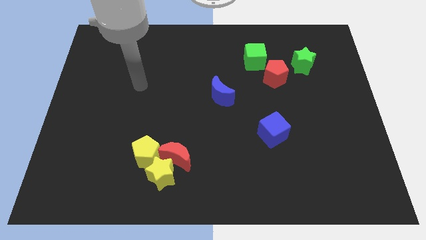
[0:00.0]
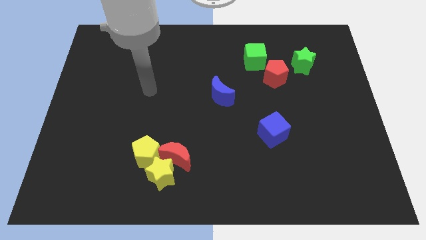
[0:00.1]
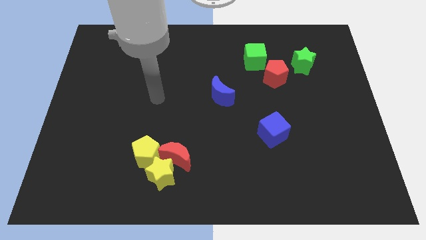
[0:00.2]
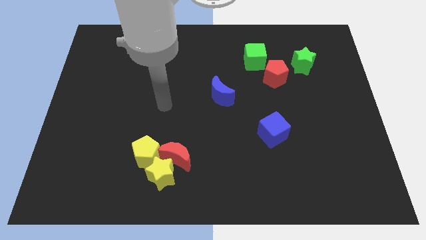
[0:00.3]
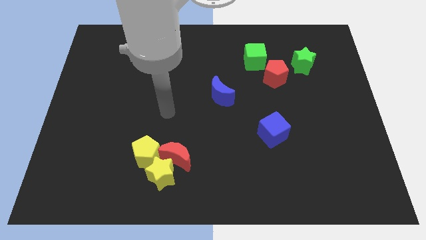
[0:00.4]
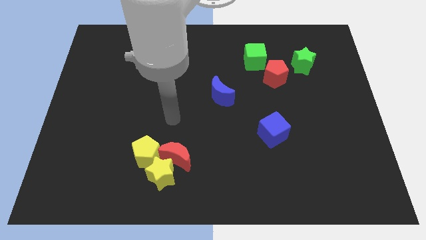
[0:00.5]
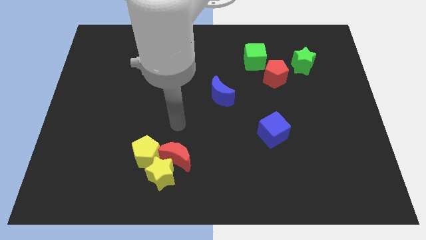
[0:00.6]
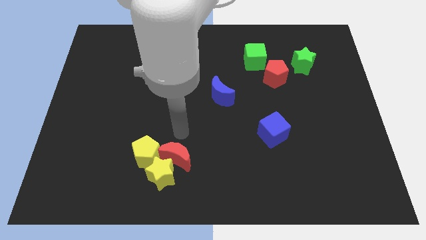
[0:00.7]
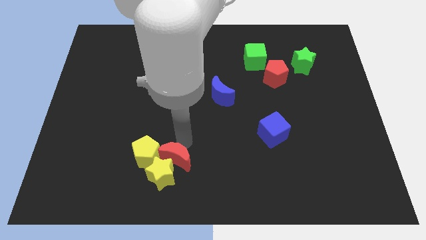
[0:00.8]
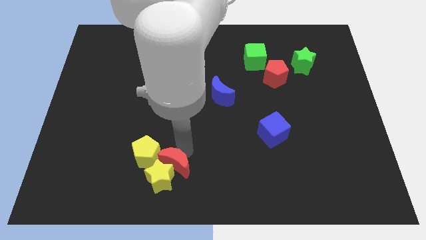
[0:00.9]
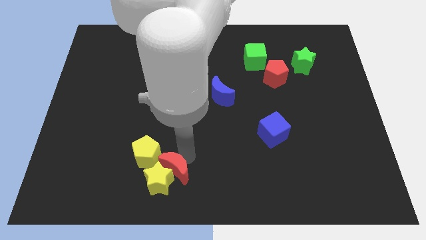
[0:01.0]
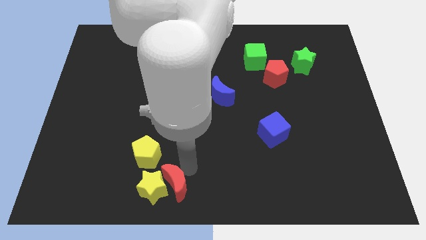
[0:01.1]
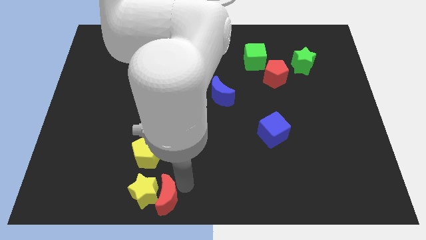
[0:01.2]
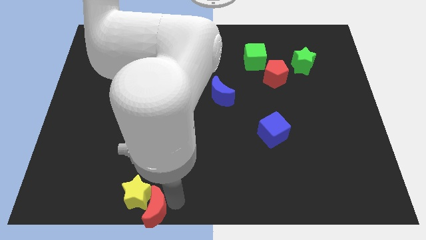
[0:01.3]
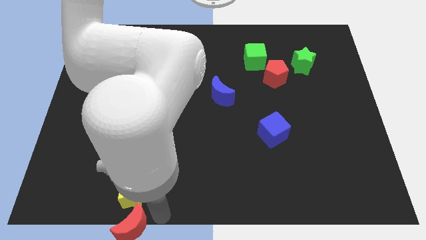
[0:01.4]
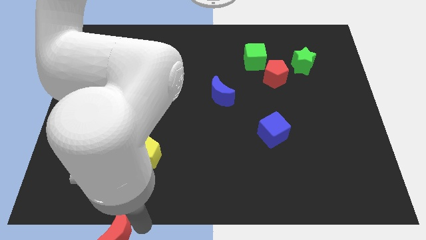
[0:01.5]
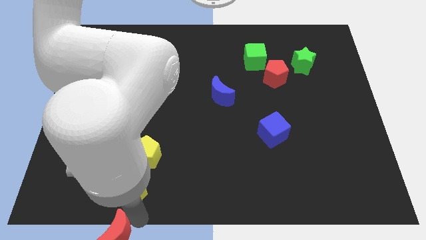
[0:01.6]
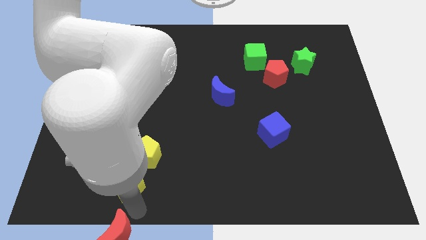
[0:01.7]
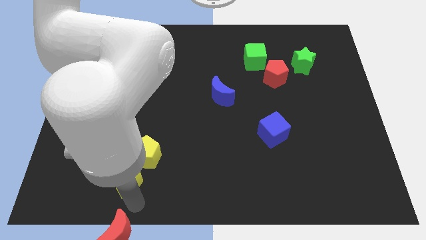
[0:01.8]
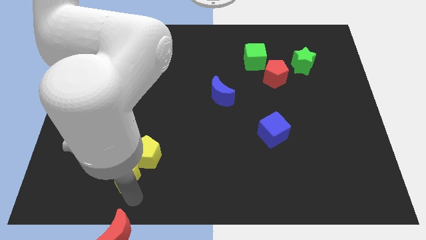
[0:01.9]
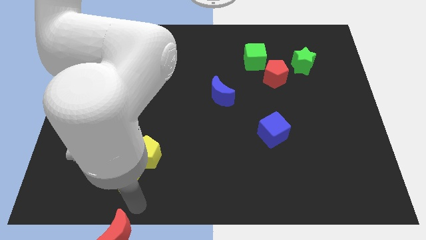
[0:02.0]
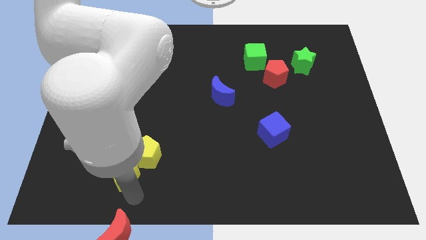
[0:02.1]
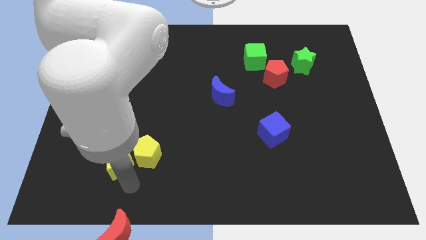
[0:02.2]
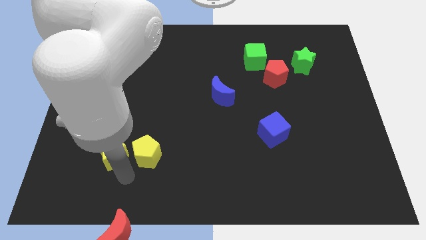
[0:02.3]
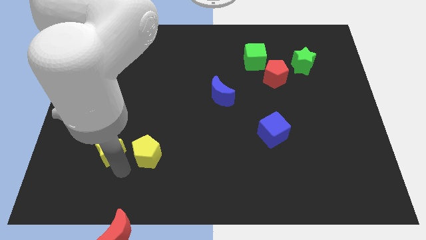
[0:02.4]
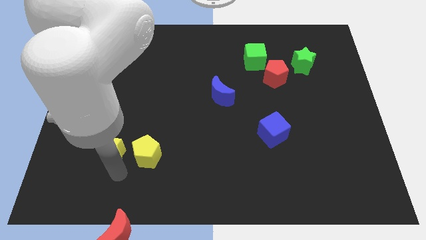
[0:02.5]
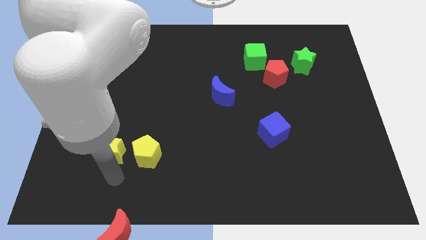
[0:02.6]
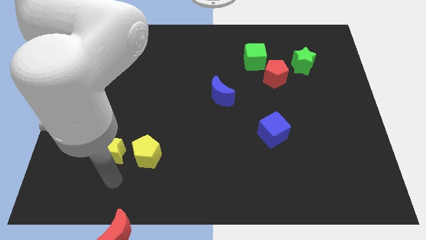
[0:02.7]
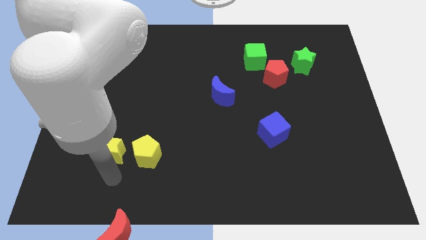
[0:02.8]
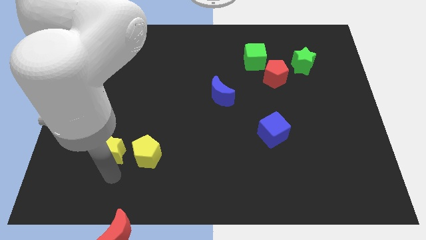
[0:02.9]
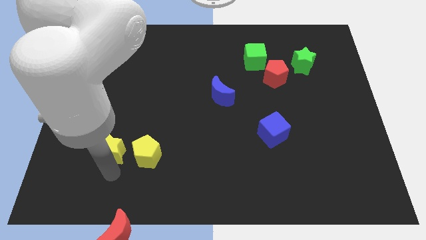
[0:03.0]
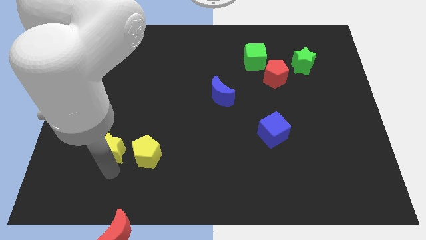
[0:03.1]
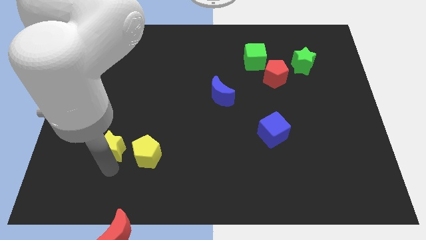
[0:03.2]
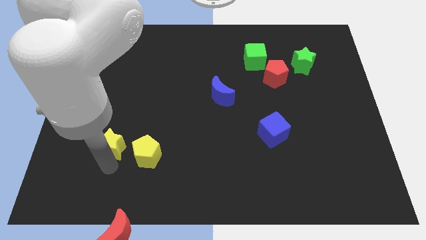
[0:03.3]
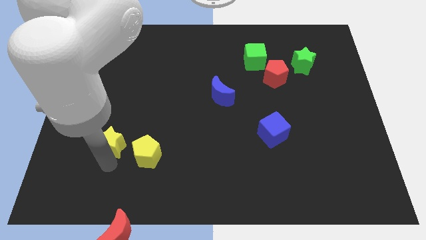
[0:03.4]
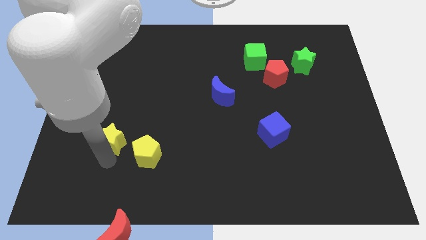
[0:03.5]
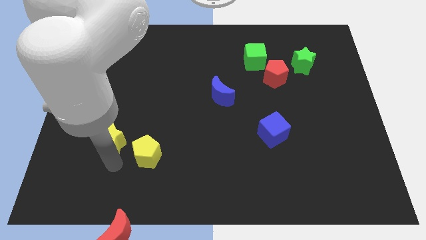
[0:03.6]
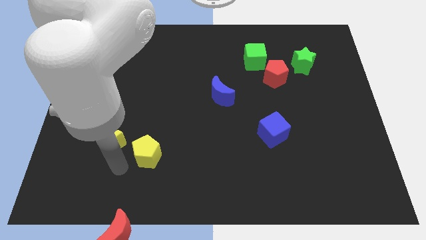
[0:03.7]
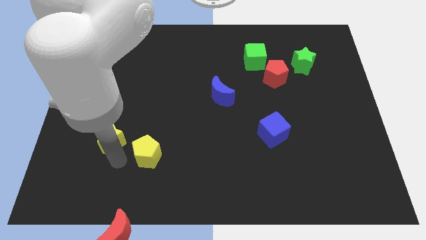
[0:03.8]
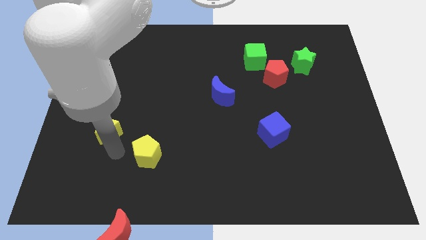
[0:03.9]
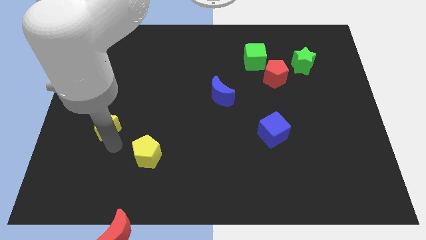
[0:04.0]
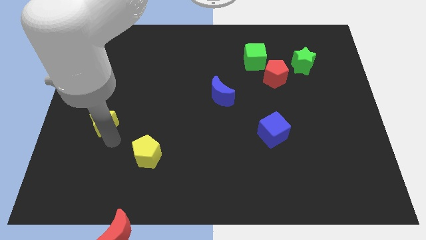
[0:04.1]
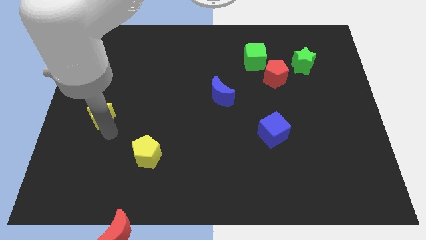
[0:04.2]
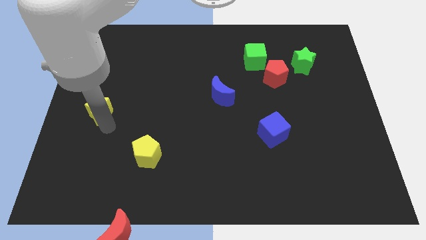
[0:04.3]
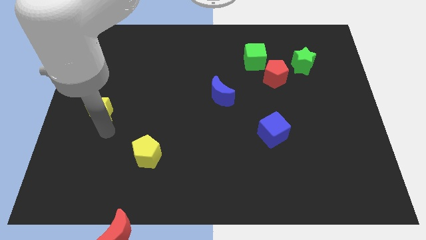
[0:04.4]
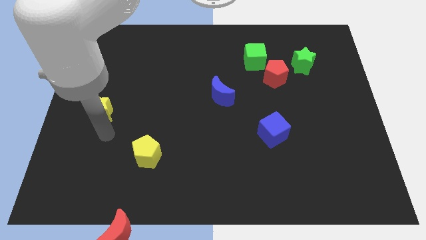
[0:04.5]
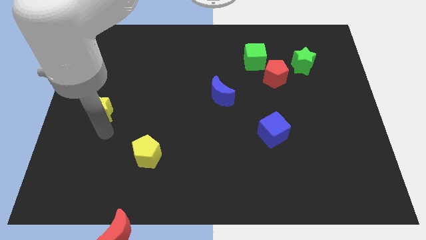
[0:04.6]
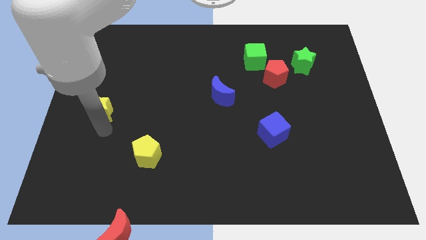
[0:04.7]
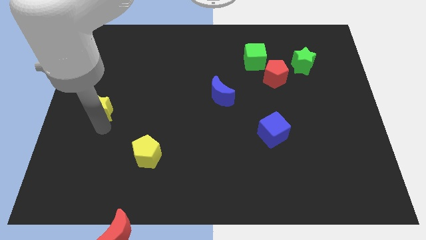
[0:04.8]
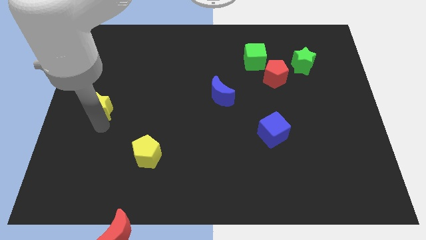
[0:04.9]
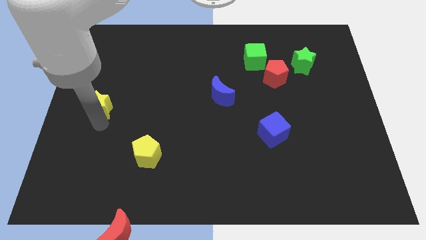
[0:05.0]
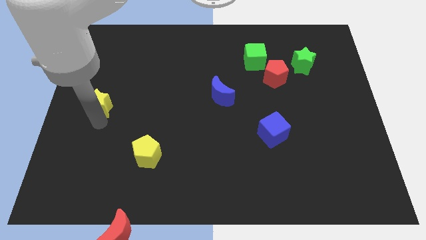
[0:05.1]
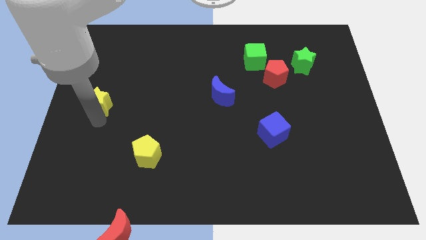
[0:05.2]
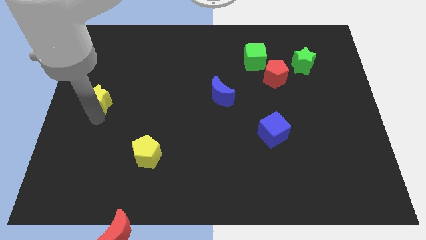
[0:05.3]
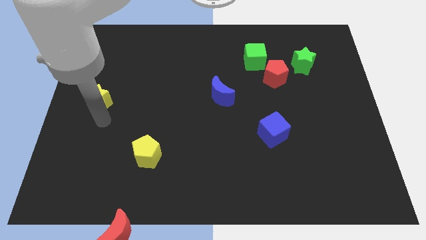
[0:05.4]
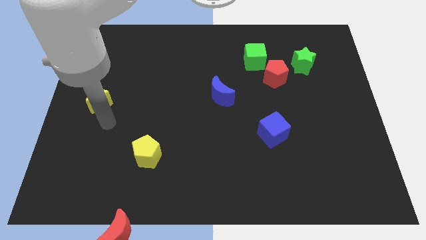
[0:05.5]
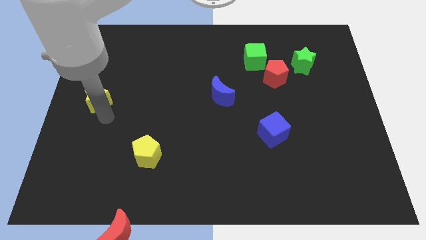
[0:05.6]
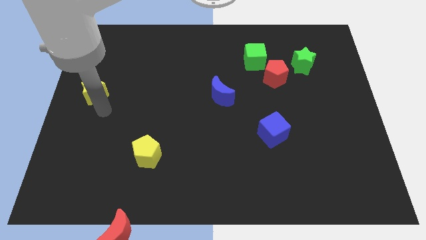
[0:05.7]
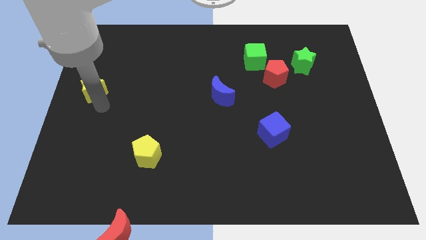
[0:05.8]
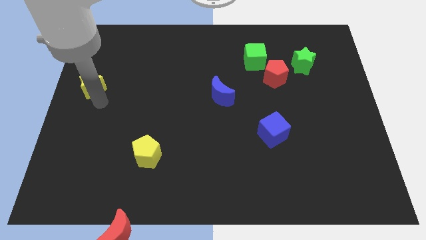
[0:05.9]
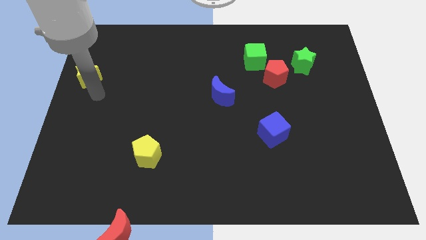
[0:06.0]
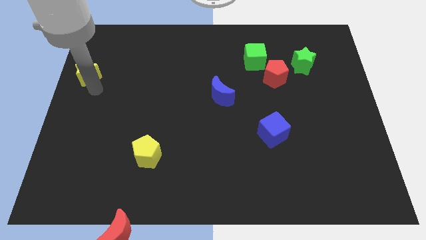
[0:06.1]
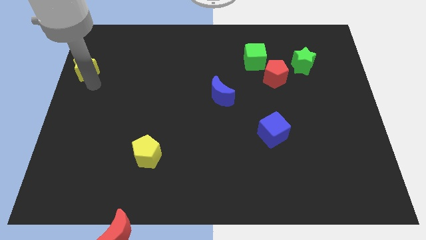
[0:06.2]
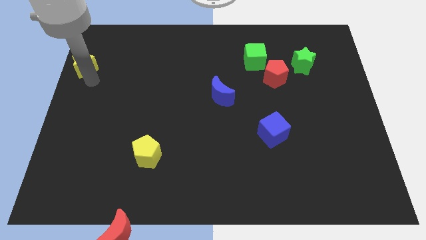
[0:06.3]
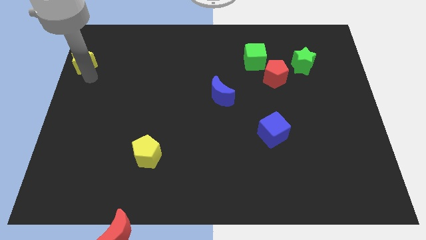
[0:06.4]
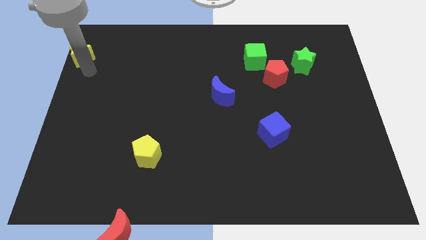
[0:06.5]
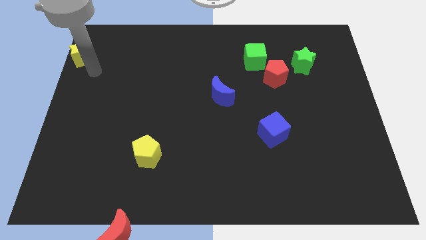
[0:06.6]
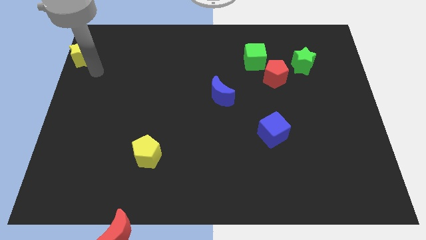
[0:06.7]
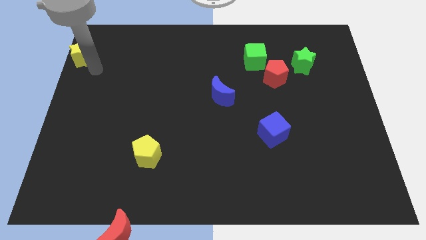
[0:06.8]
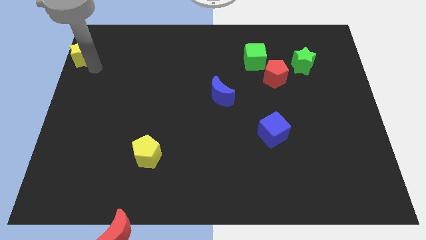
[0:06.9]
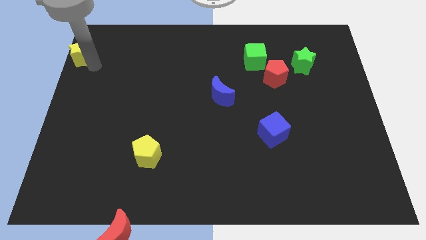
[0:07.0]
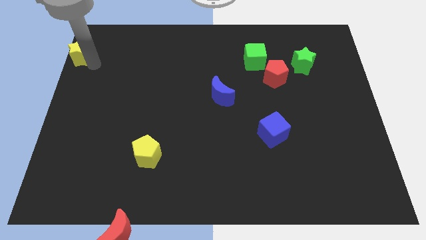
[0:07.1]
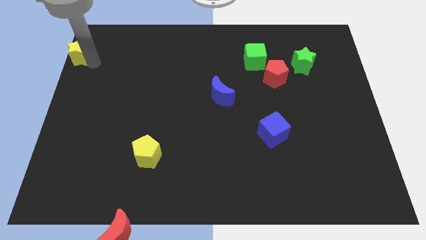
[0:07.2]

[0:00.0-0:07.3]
push the yellow star to the top left
